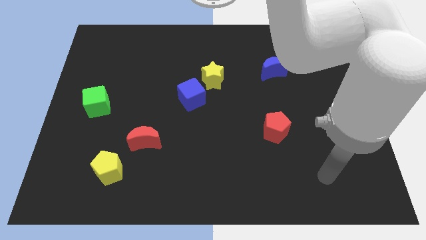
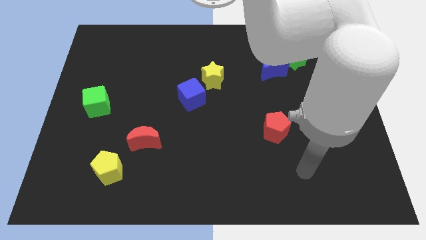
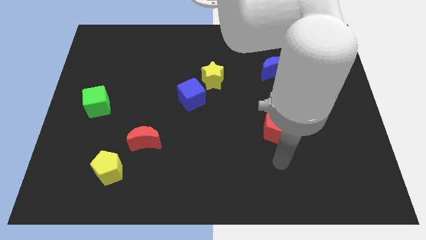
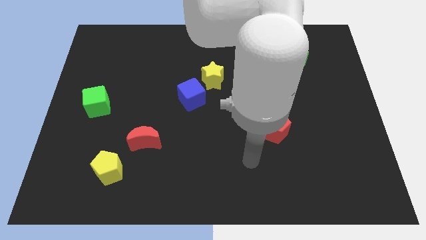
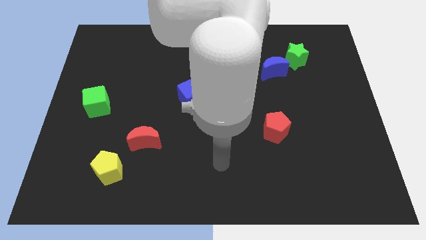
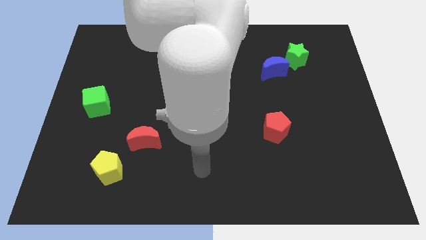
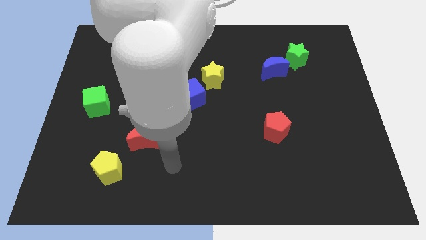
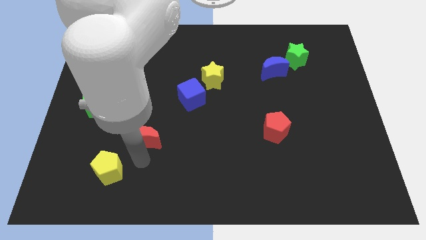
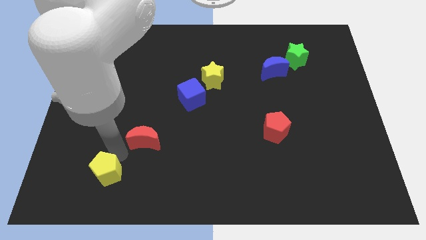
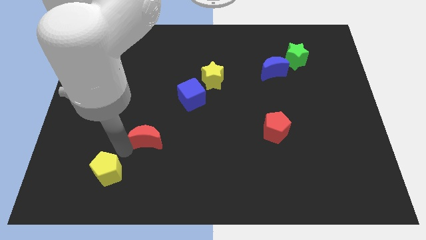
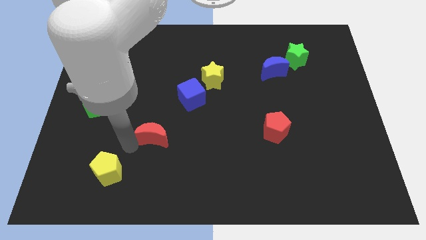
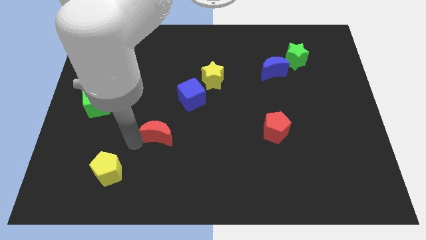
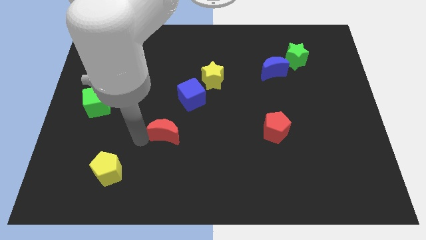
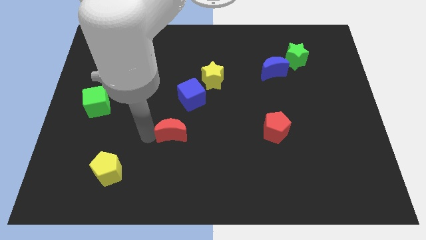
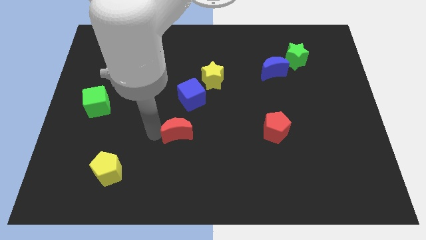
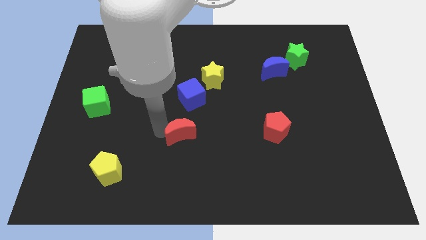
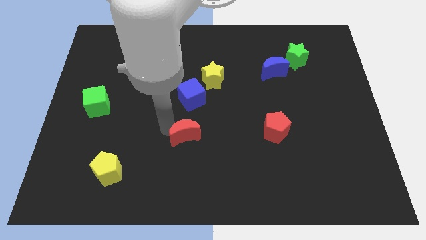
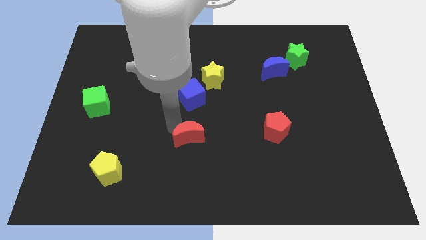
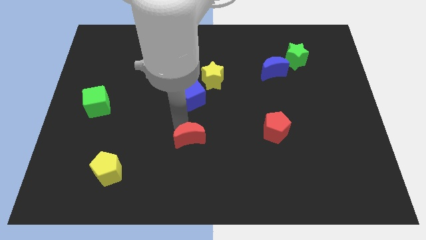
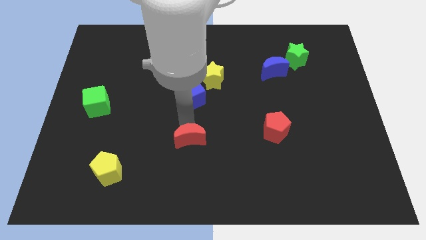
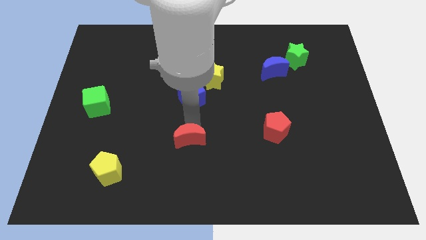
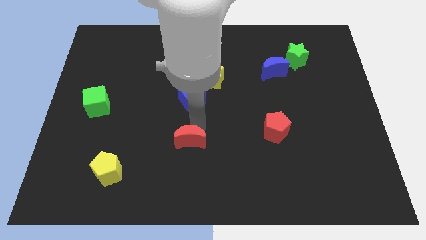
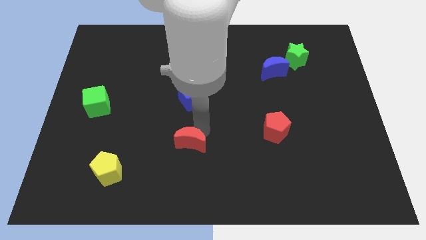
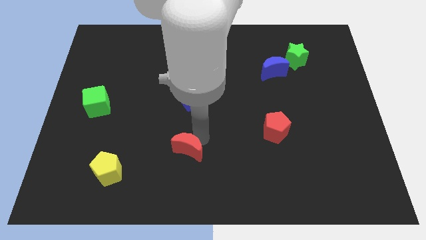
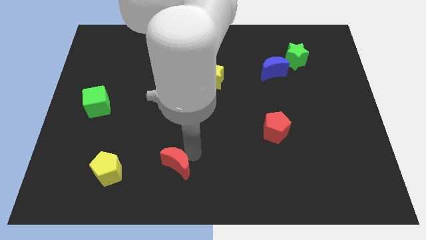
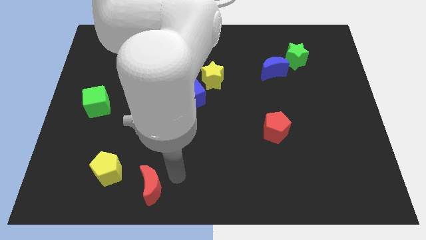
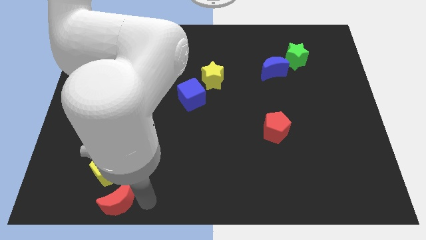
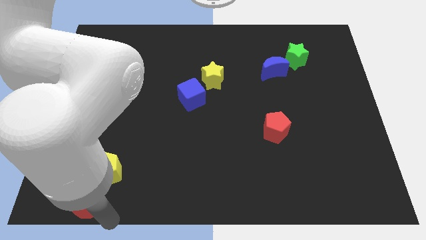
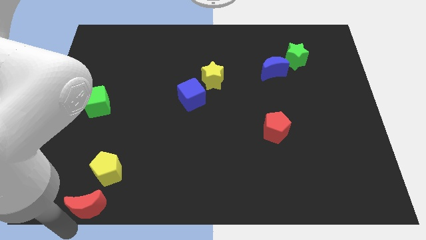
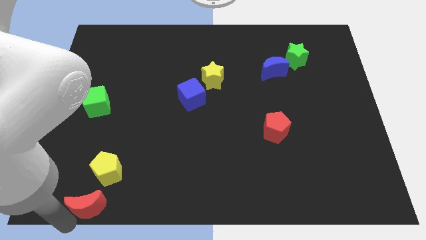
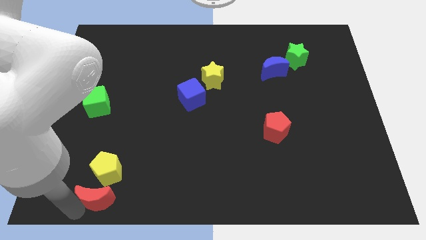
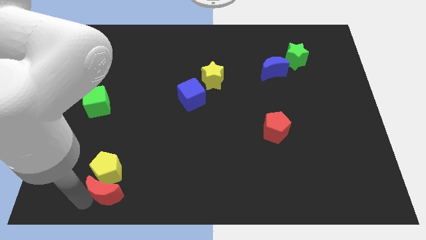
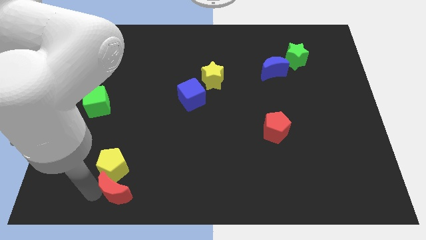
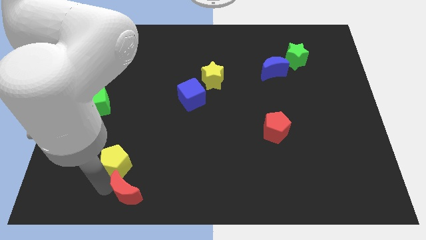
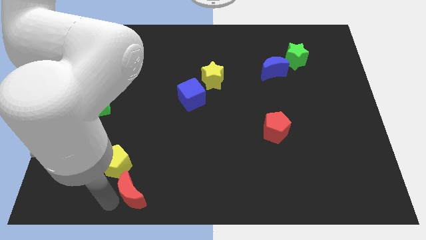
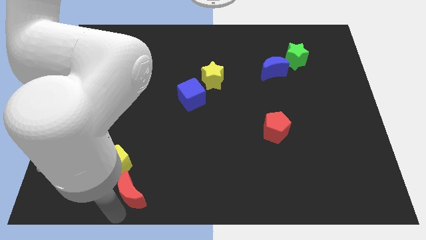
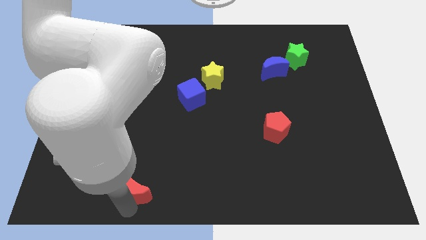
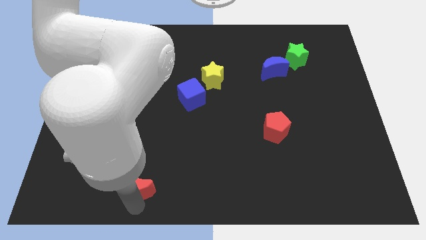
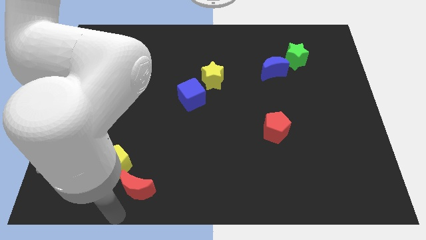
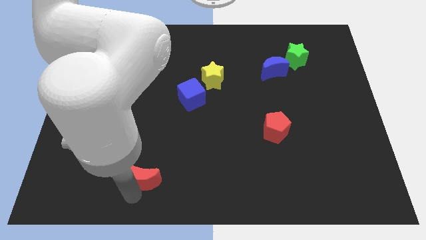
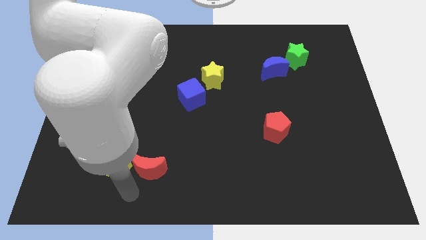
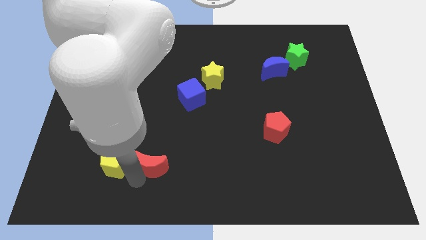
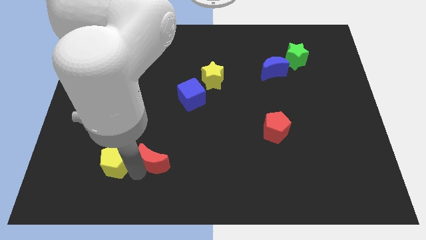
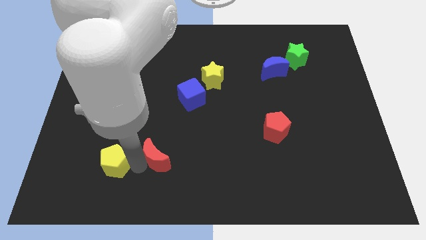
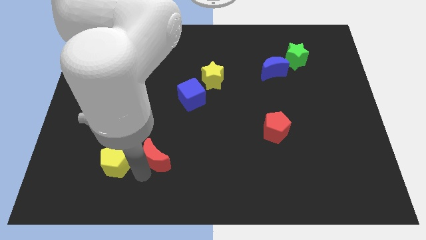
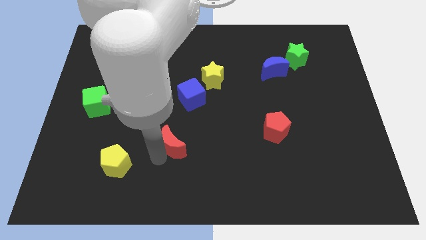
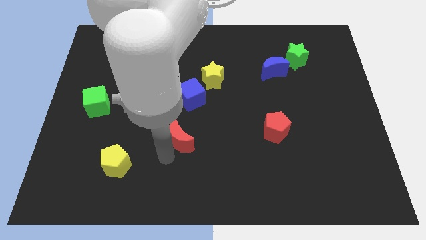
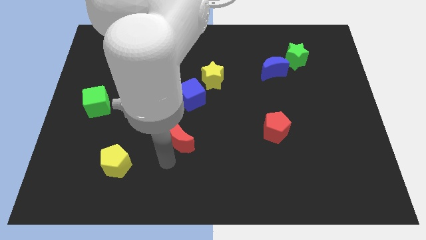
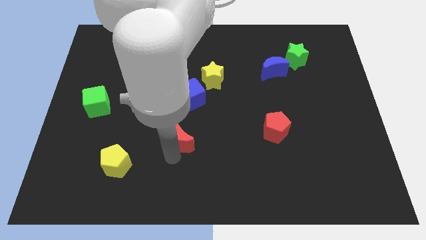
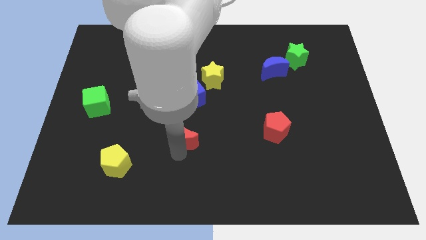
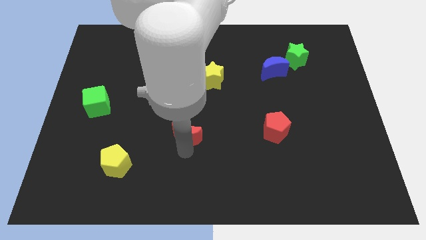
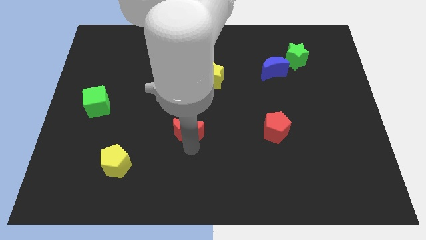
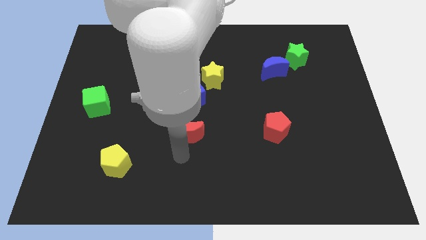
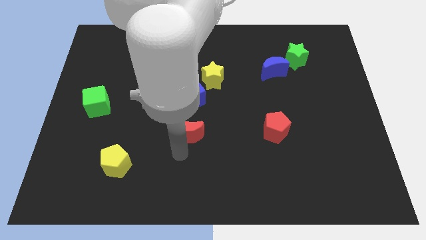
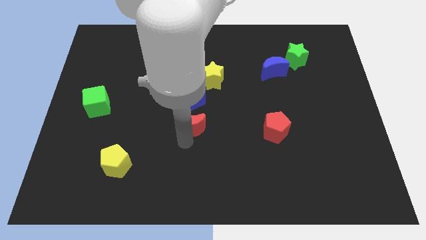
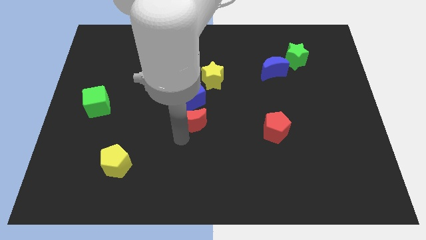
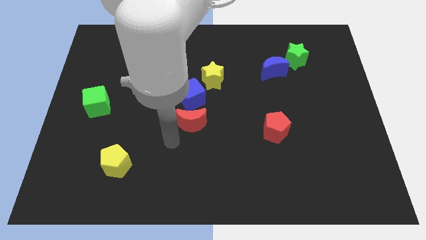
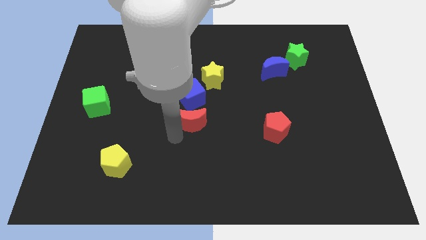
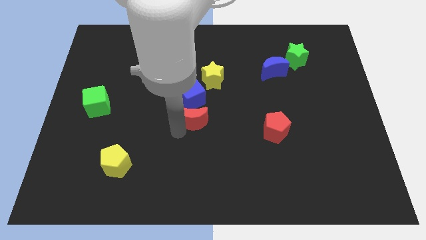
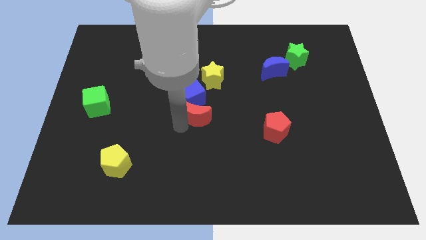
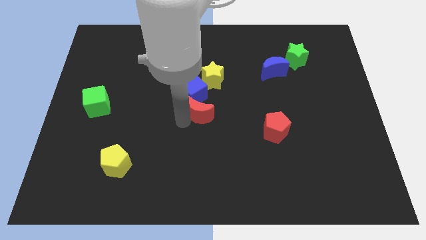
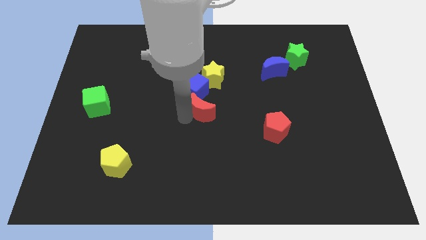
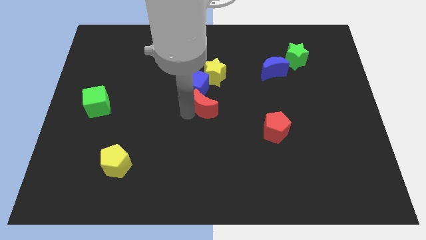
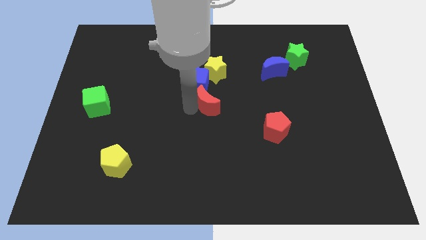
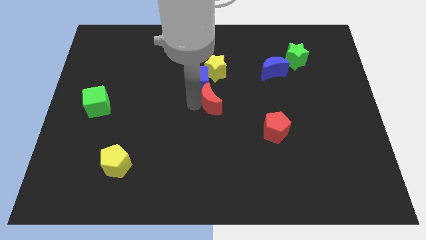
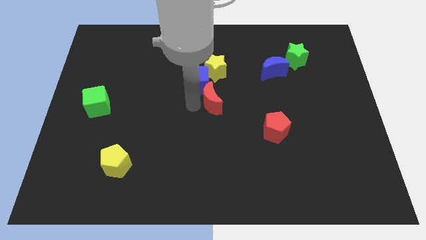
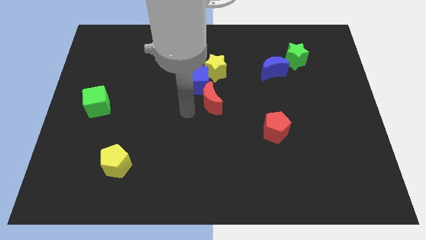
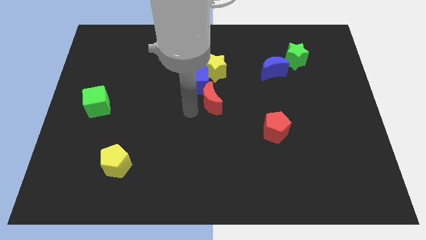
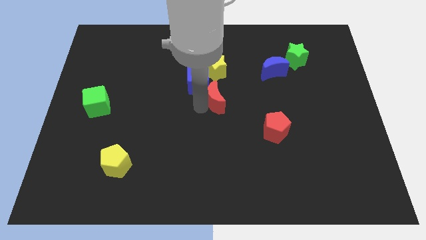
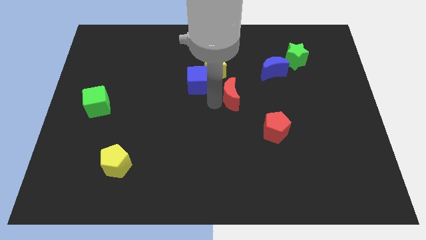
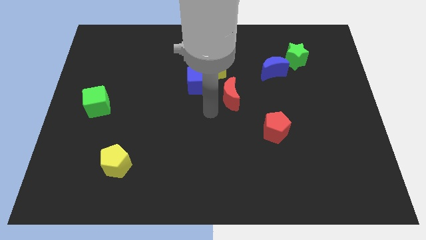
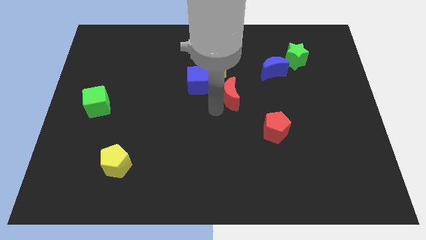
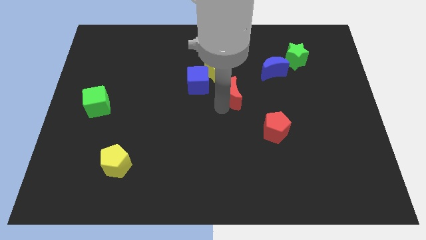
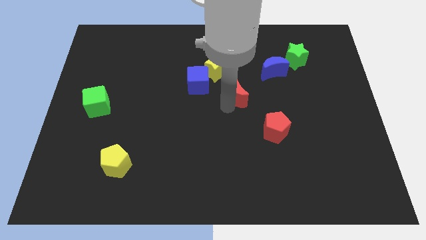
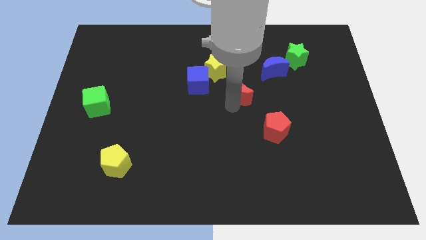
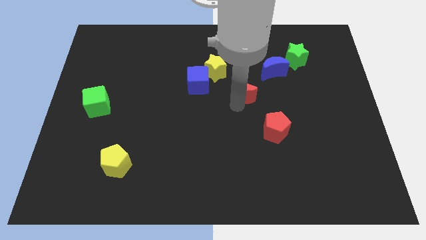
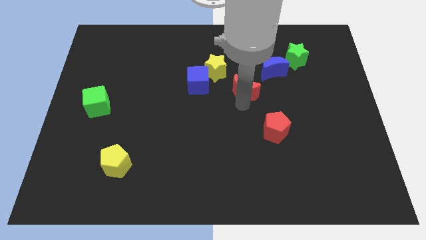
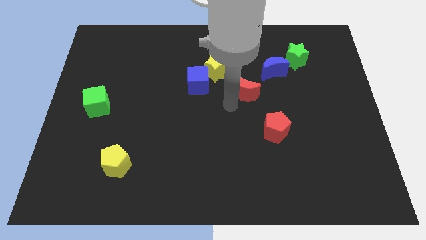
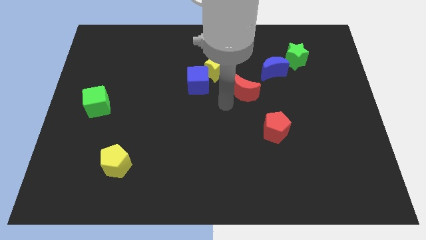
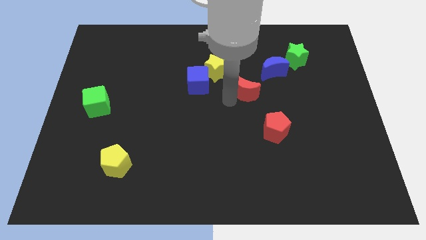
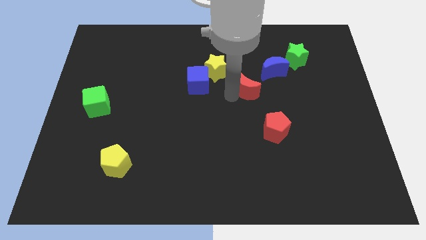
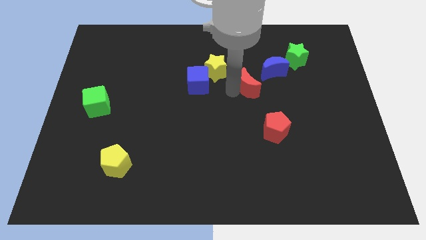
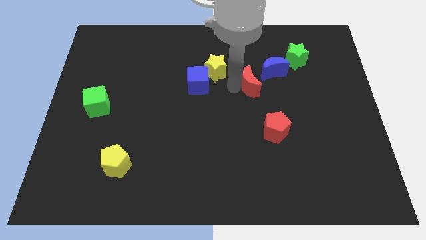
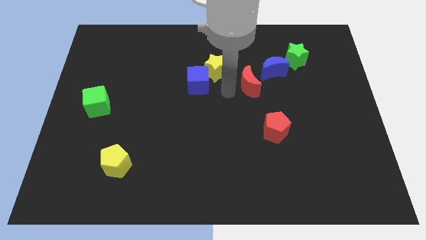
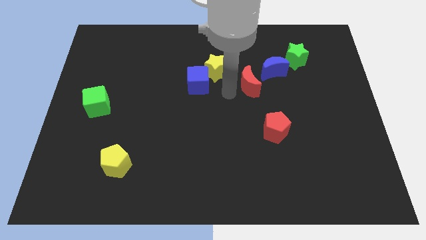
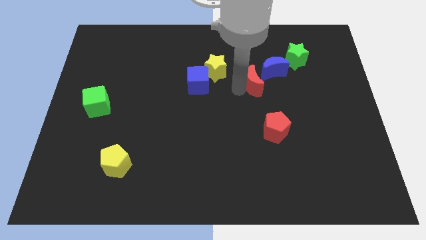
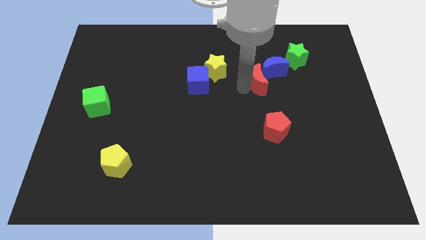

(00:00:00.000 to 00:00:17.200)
move the red moon next to the blue moon
